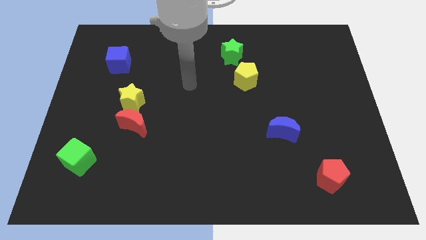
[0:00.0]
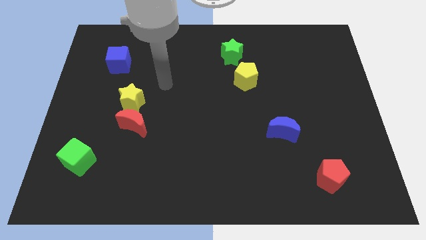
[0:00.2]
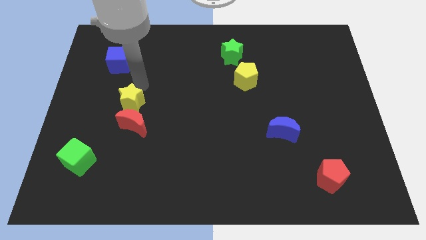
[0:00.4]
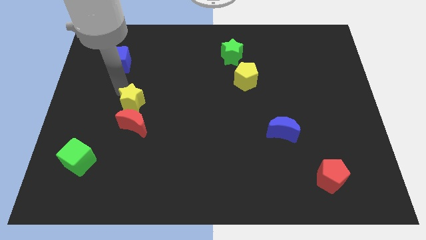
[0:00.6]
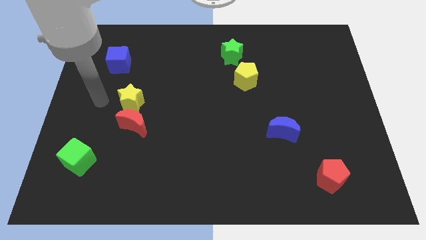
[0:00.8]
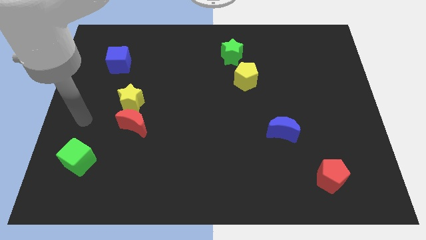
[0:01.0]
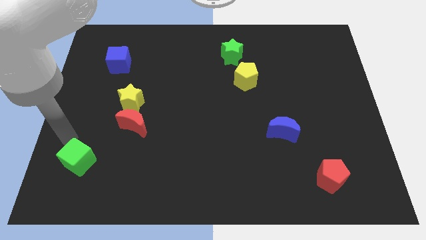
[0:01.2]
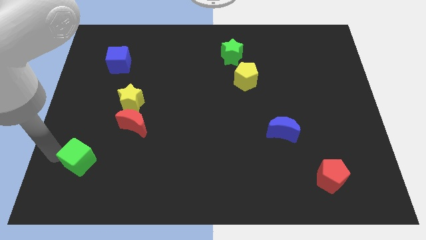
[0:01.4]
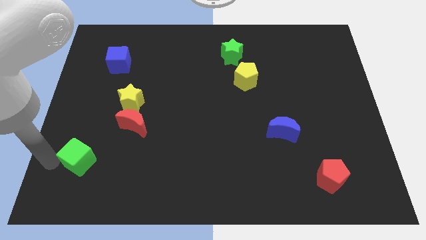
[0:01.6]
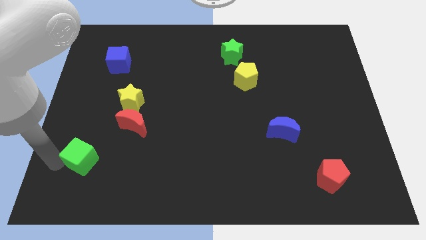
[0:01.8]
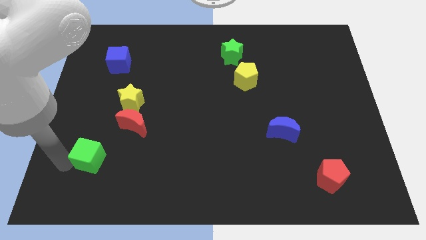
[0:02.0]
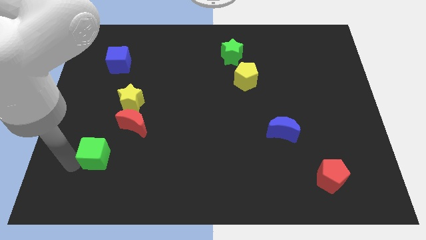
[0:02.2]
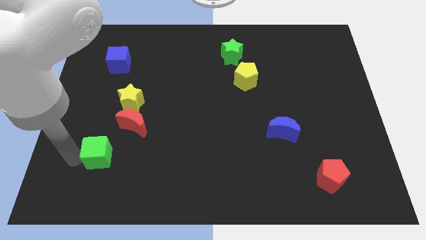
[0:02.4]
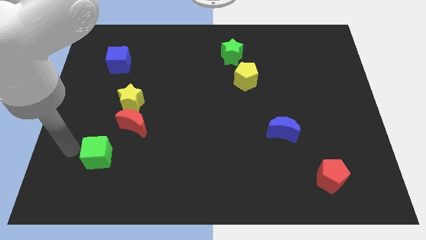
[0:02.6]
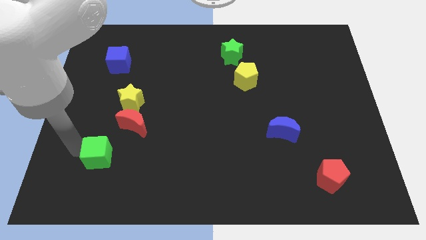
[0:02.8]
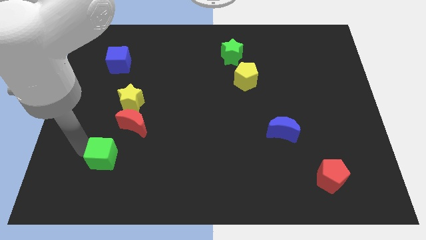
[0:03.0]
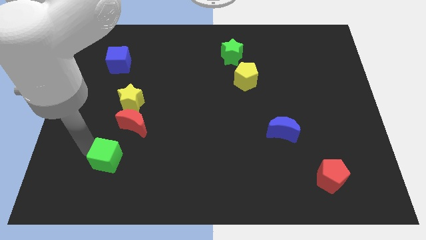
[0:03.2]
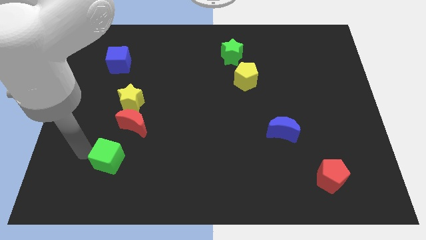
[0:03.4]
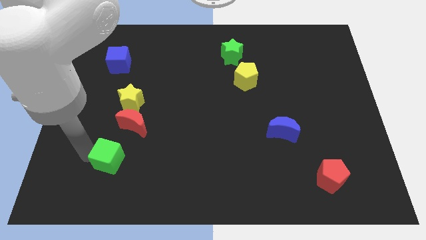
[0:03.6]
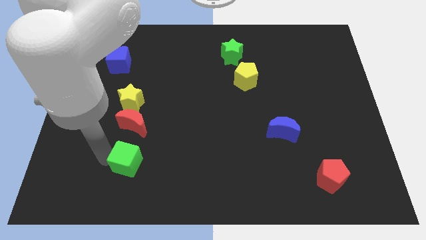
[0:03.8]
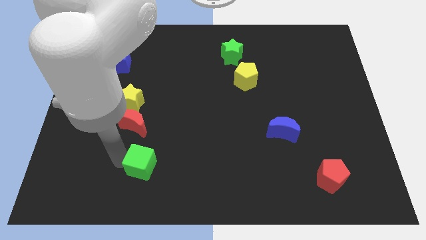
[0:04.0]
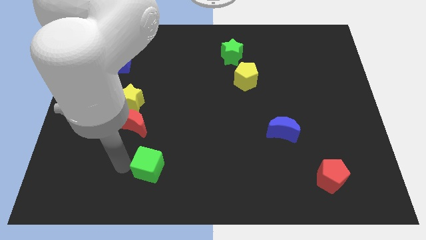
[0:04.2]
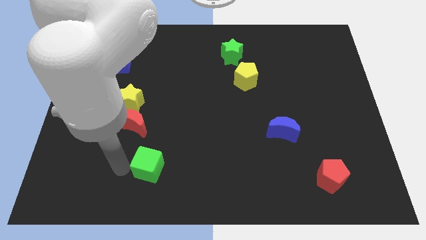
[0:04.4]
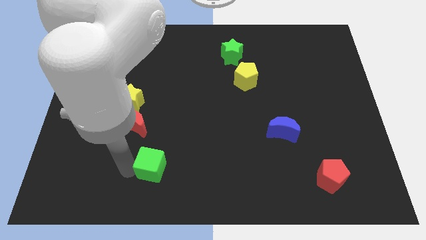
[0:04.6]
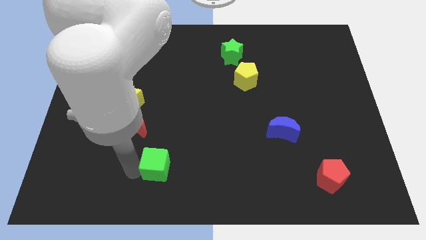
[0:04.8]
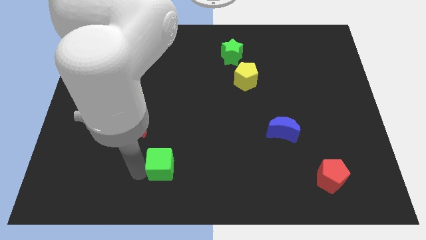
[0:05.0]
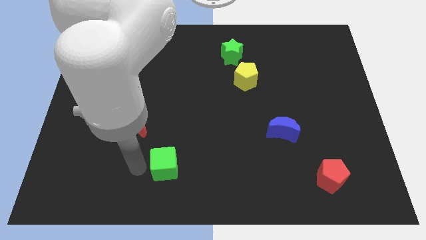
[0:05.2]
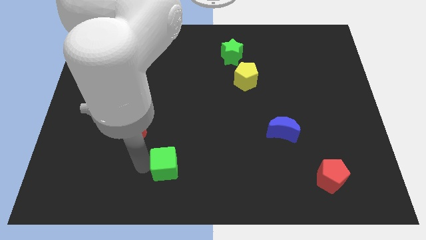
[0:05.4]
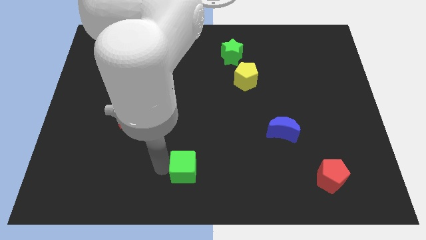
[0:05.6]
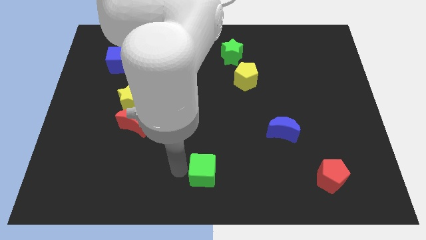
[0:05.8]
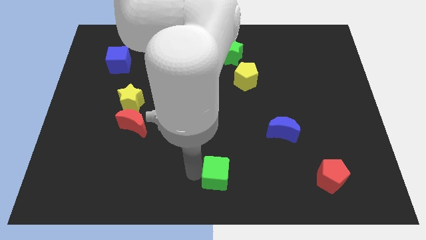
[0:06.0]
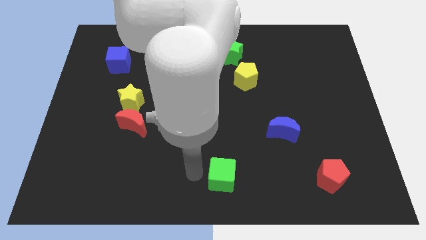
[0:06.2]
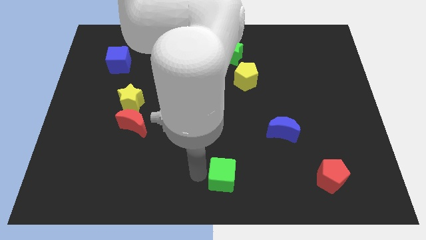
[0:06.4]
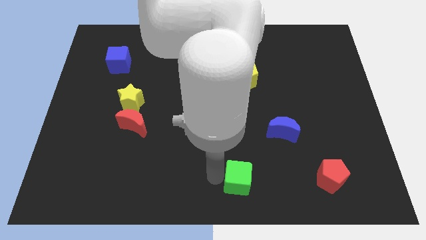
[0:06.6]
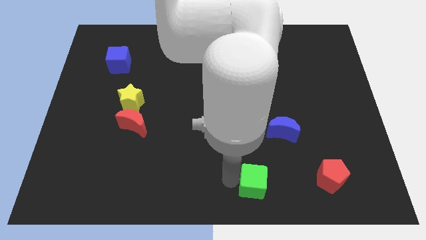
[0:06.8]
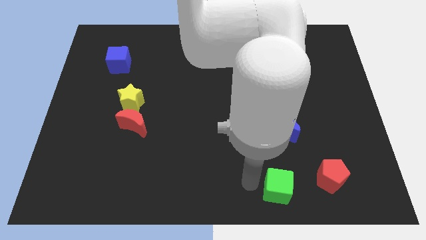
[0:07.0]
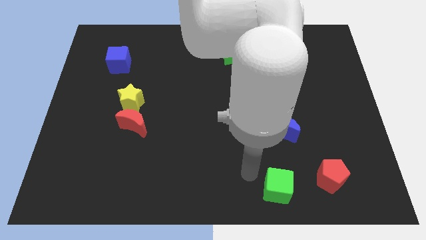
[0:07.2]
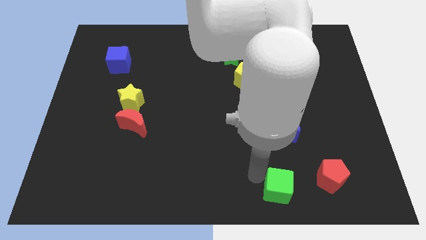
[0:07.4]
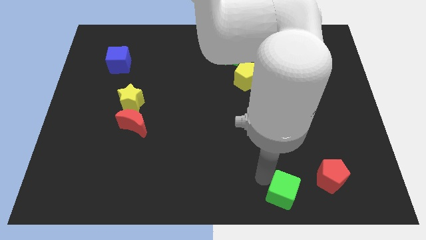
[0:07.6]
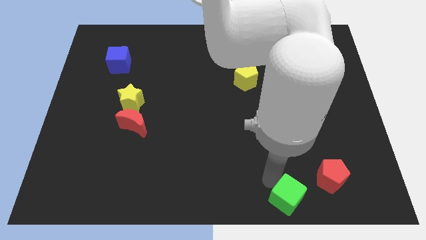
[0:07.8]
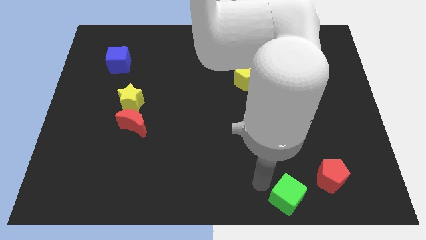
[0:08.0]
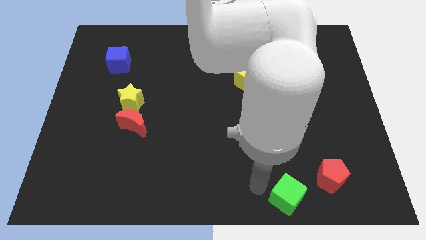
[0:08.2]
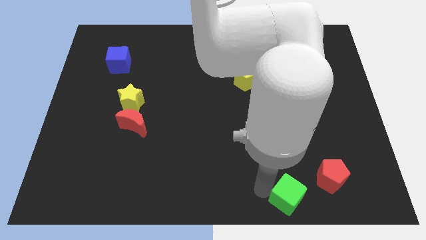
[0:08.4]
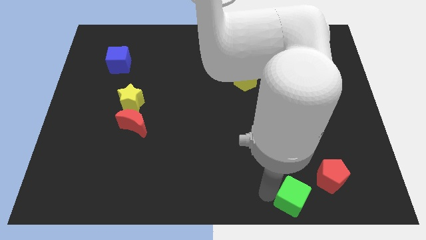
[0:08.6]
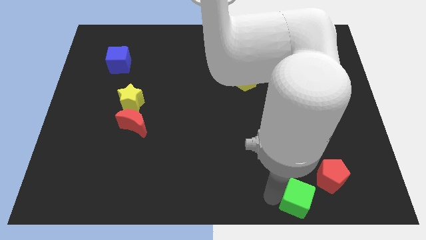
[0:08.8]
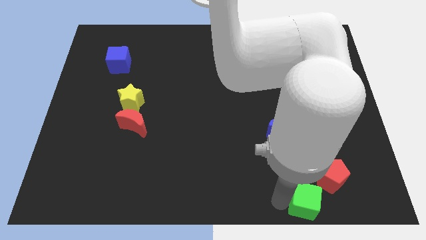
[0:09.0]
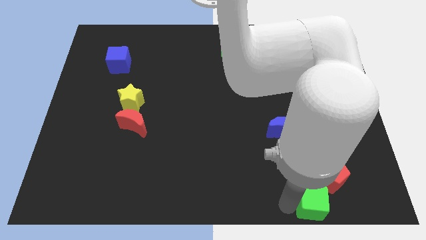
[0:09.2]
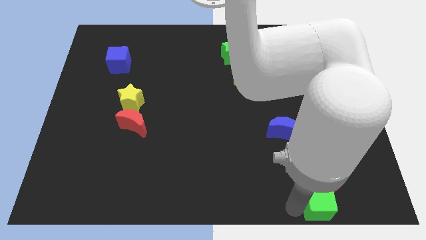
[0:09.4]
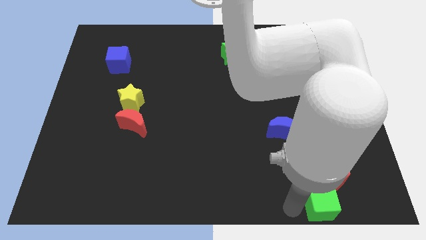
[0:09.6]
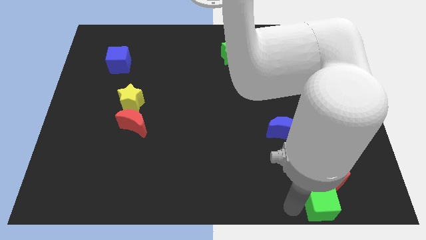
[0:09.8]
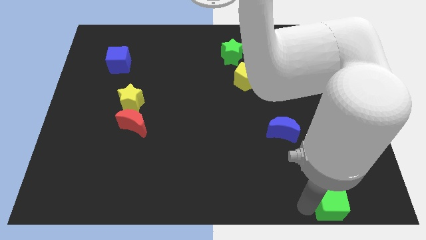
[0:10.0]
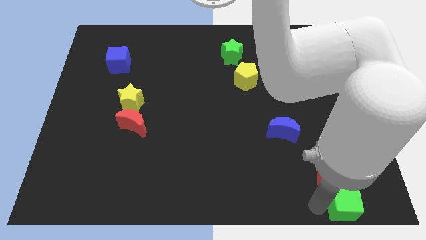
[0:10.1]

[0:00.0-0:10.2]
slide the green cube to the lower right corner

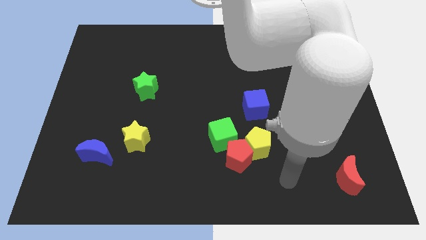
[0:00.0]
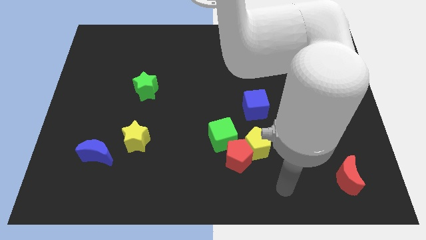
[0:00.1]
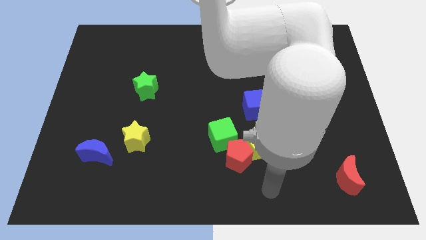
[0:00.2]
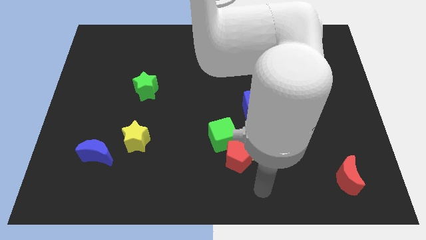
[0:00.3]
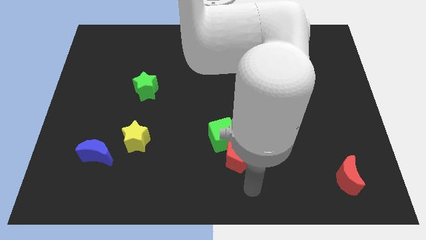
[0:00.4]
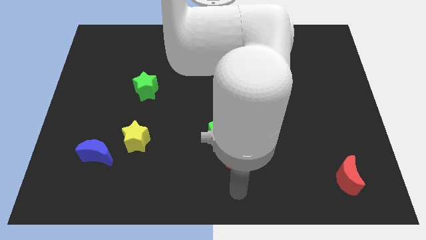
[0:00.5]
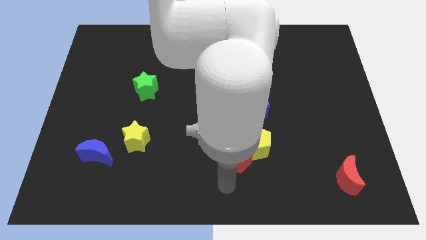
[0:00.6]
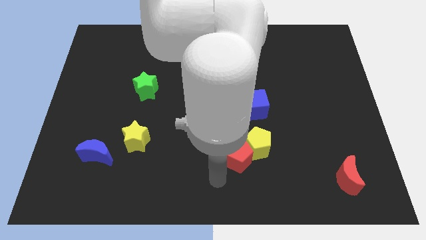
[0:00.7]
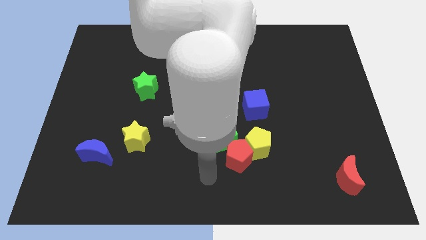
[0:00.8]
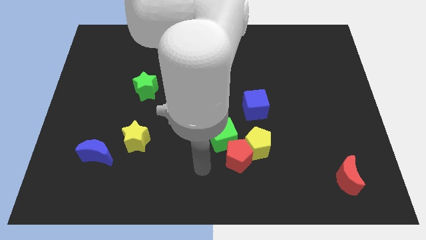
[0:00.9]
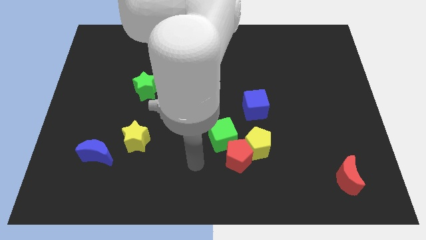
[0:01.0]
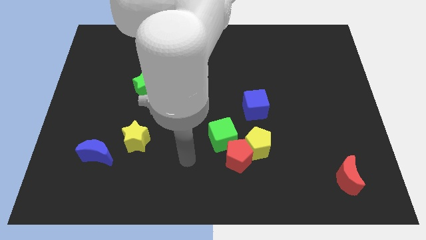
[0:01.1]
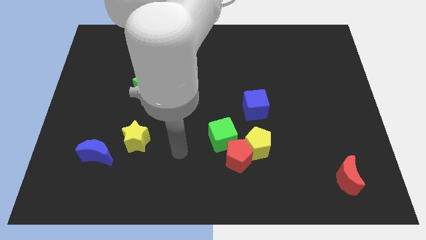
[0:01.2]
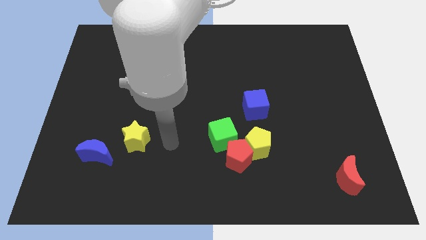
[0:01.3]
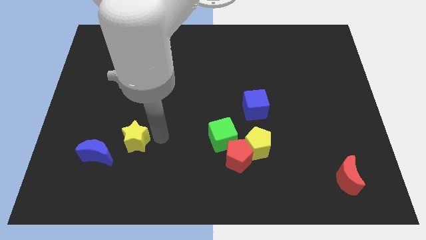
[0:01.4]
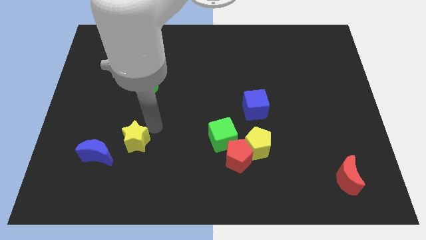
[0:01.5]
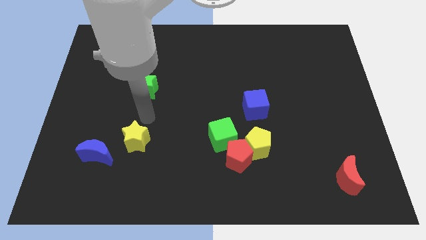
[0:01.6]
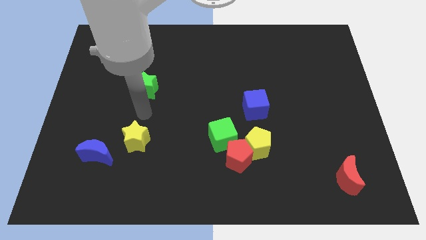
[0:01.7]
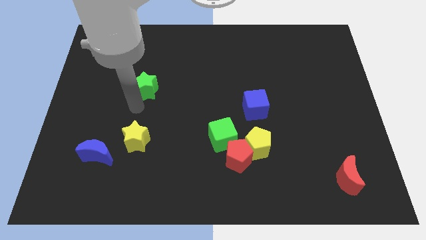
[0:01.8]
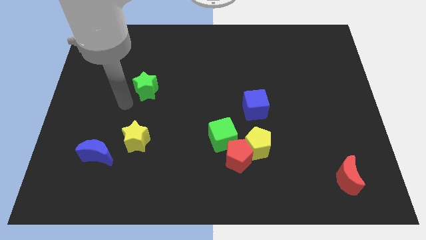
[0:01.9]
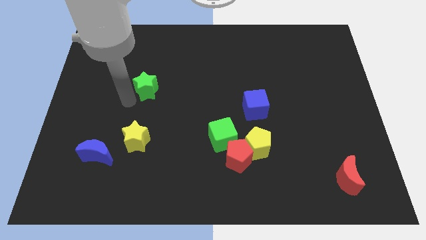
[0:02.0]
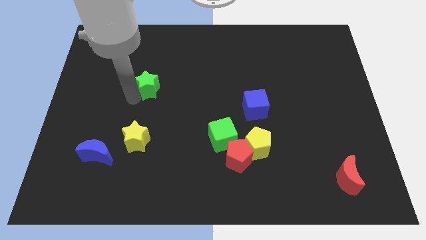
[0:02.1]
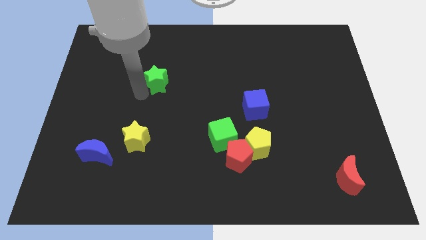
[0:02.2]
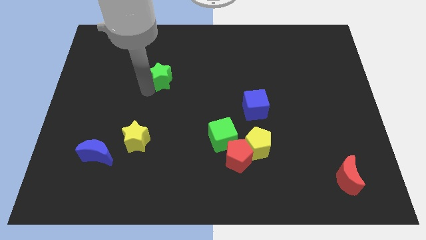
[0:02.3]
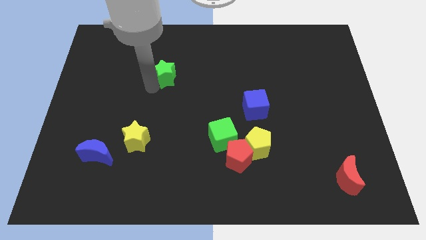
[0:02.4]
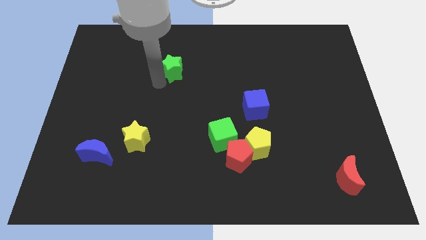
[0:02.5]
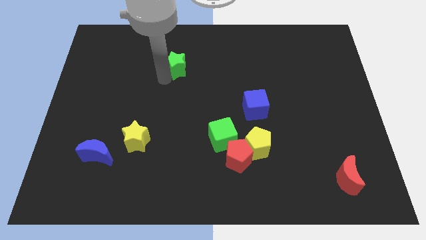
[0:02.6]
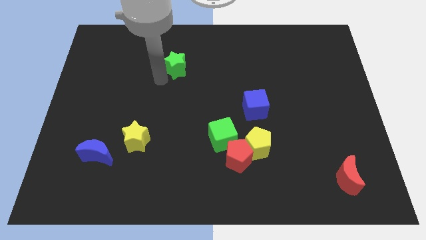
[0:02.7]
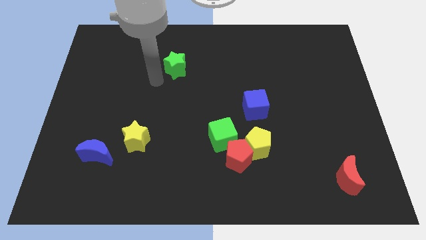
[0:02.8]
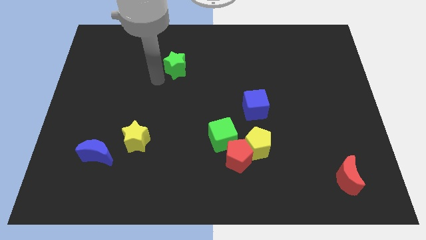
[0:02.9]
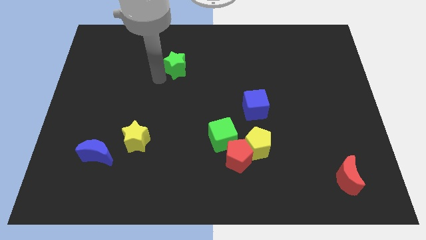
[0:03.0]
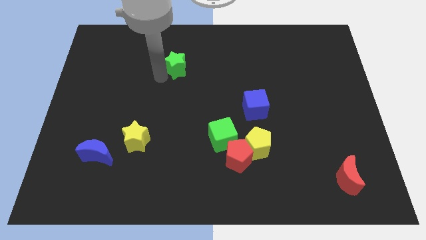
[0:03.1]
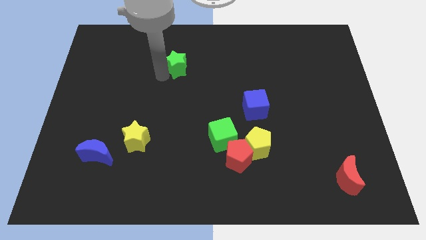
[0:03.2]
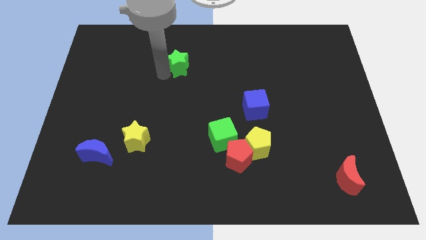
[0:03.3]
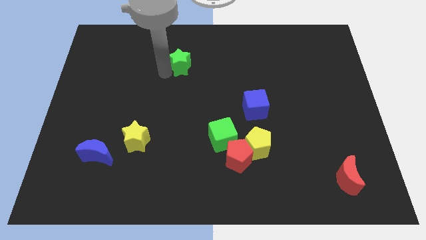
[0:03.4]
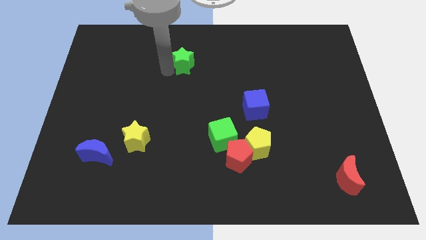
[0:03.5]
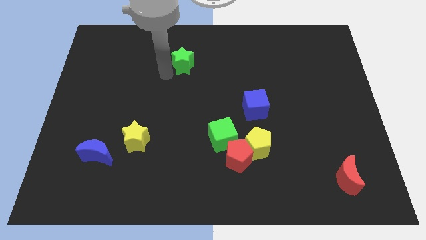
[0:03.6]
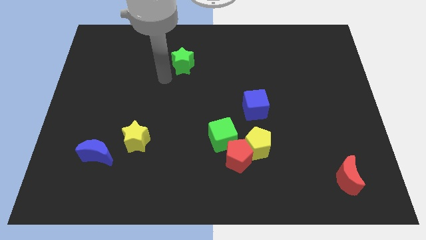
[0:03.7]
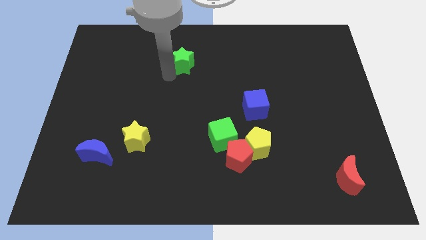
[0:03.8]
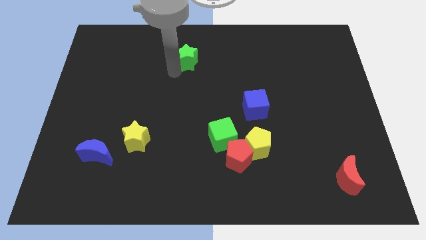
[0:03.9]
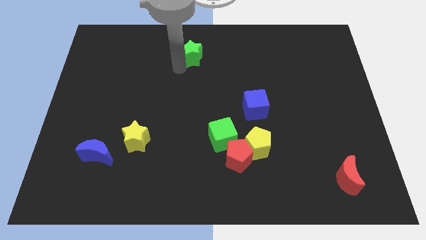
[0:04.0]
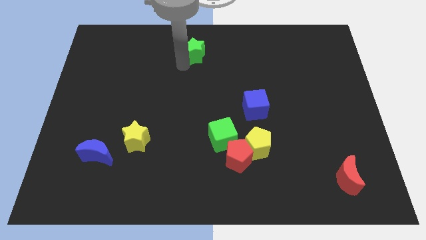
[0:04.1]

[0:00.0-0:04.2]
slide the green star to the top side
